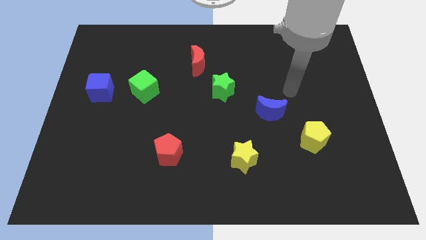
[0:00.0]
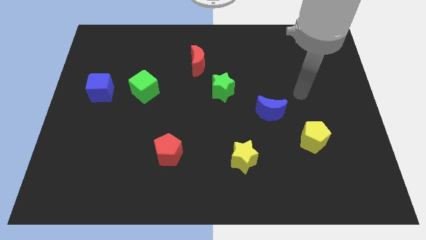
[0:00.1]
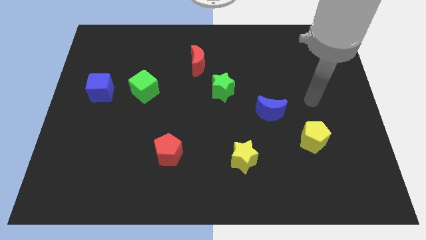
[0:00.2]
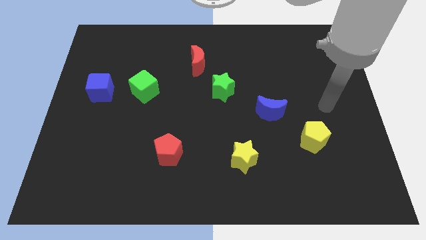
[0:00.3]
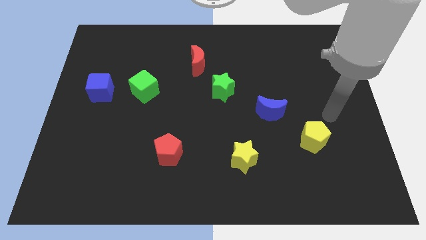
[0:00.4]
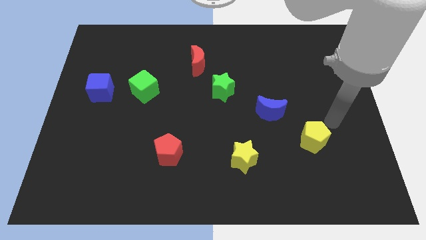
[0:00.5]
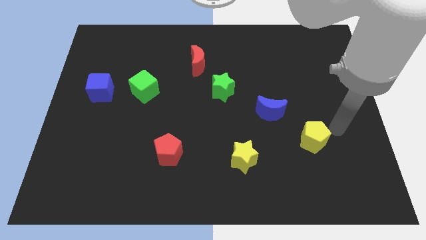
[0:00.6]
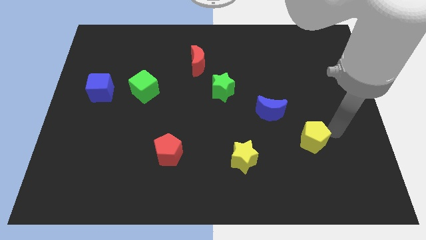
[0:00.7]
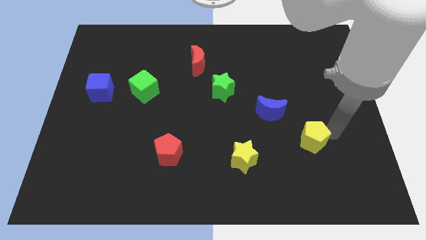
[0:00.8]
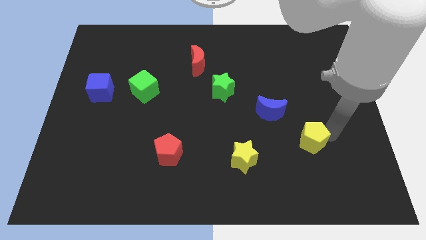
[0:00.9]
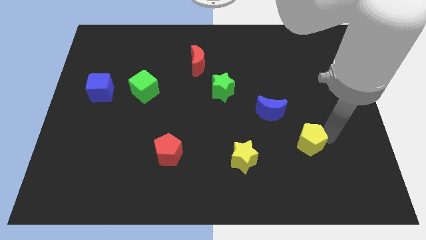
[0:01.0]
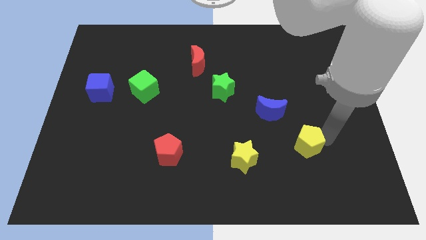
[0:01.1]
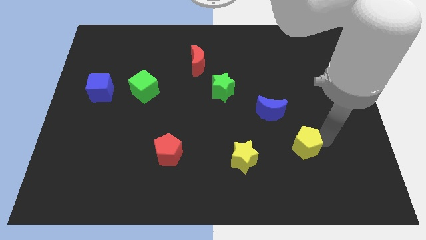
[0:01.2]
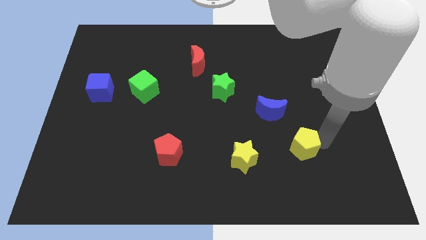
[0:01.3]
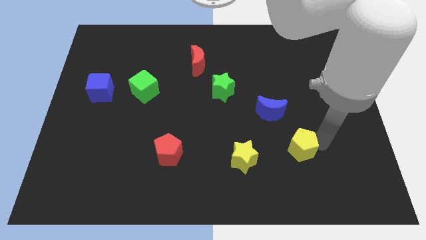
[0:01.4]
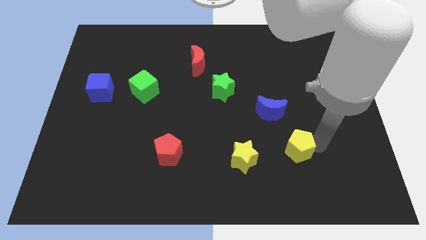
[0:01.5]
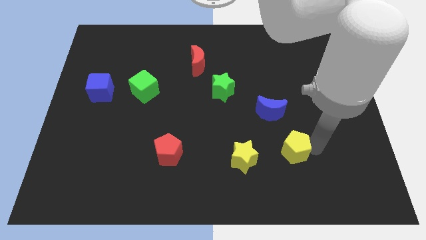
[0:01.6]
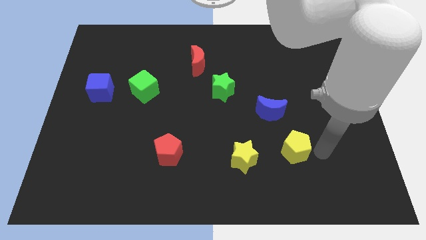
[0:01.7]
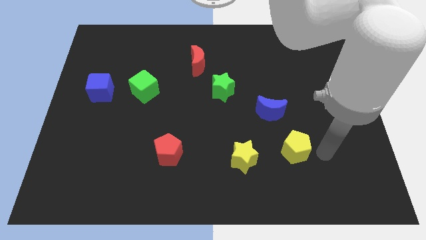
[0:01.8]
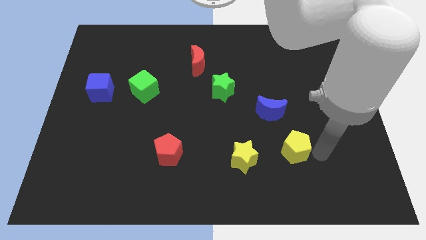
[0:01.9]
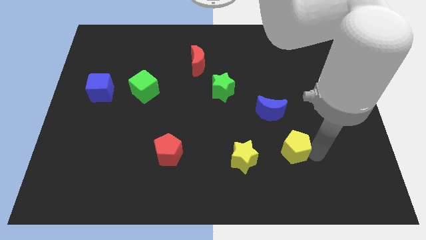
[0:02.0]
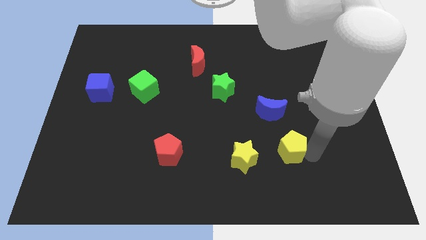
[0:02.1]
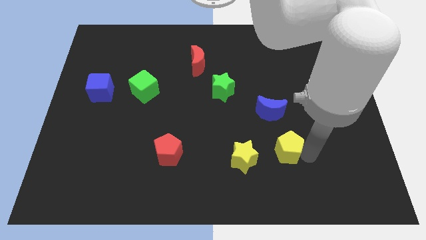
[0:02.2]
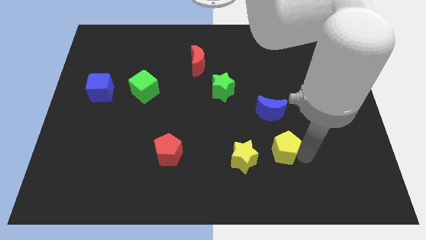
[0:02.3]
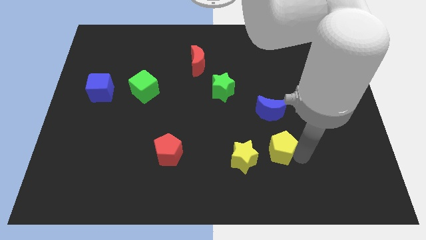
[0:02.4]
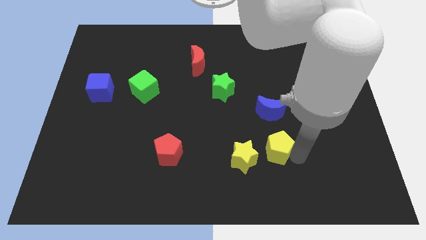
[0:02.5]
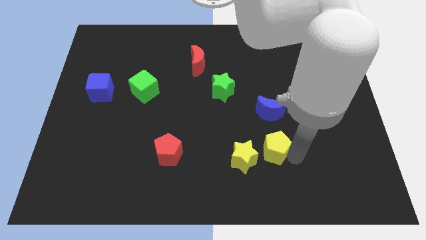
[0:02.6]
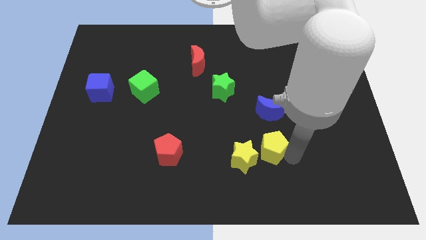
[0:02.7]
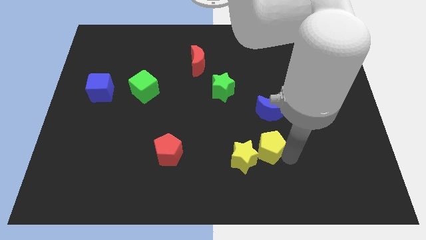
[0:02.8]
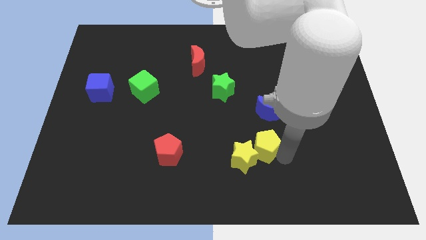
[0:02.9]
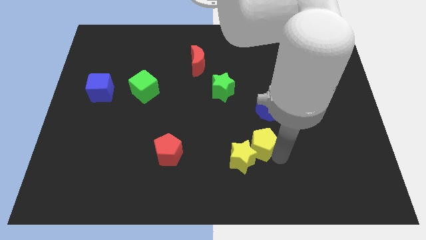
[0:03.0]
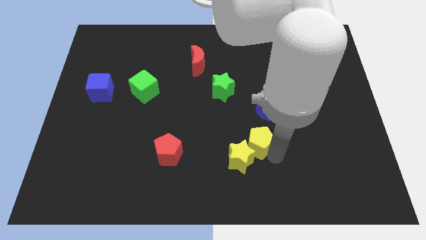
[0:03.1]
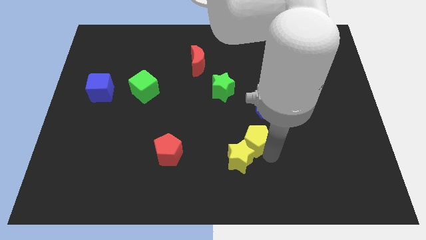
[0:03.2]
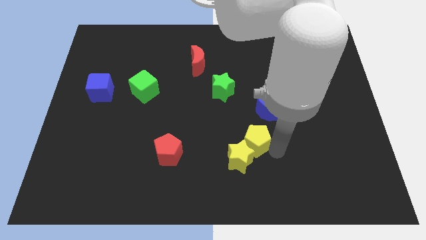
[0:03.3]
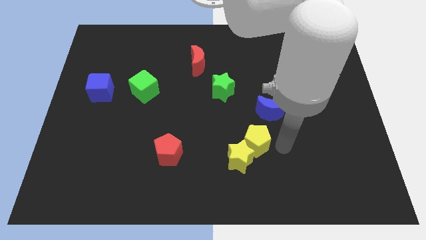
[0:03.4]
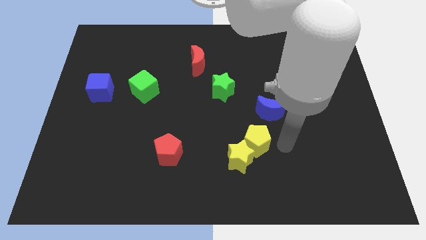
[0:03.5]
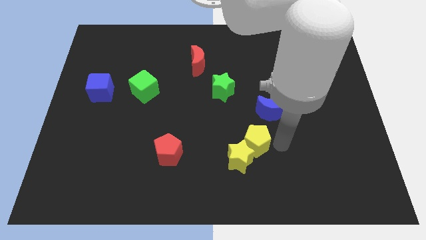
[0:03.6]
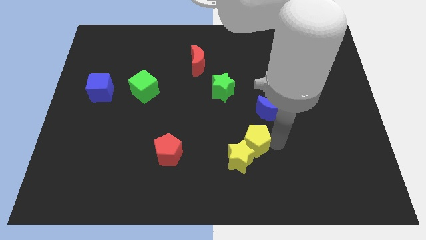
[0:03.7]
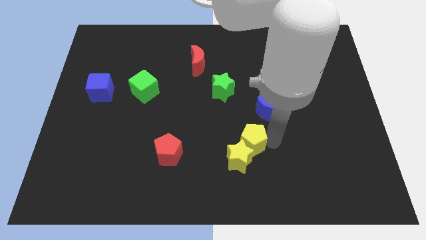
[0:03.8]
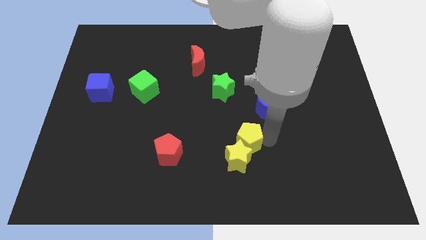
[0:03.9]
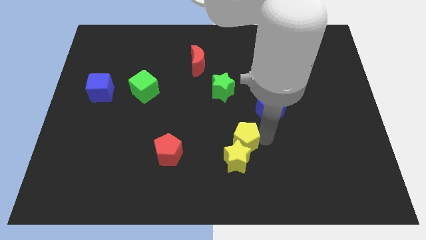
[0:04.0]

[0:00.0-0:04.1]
slide the yellow pentagon to the top left of the yellow star

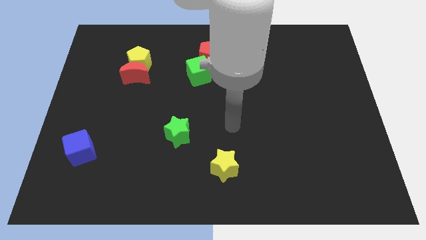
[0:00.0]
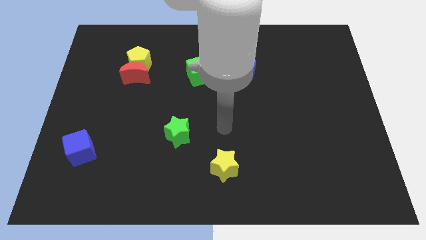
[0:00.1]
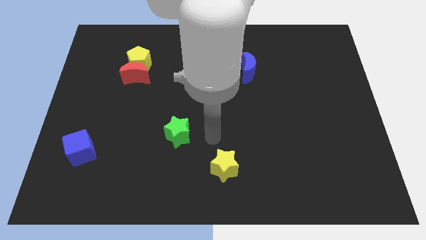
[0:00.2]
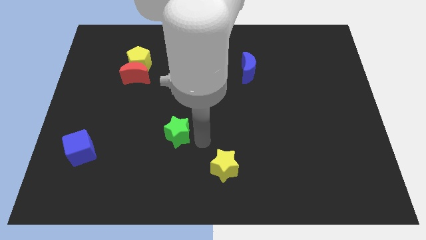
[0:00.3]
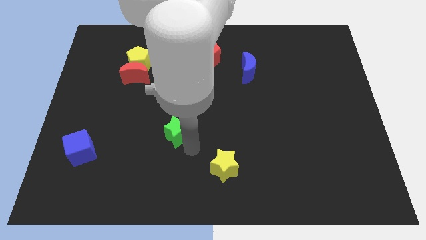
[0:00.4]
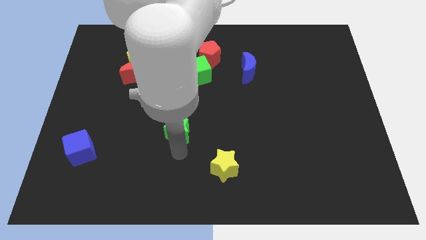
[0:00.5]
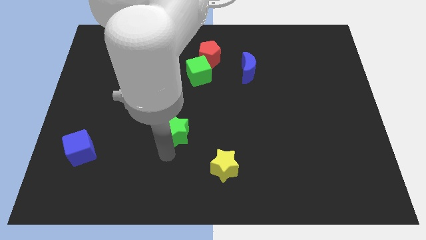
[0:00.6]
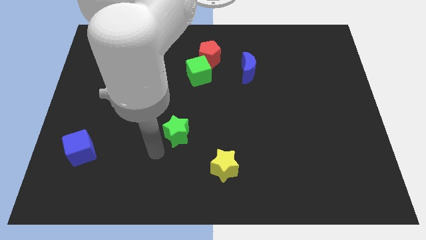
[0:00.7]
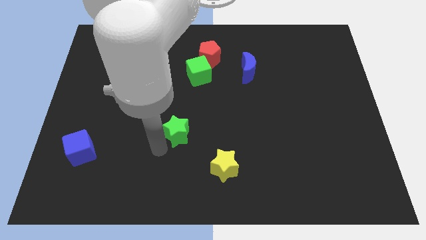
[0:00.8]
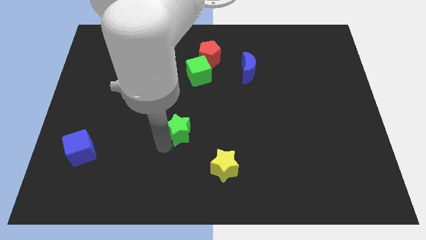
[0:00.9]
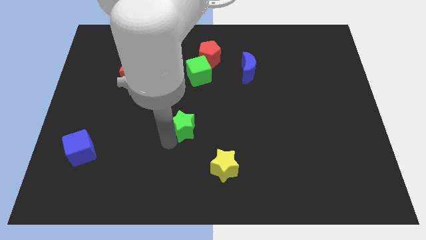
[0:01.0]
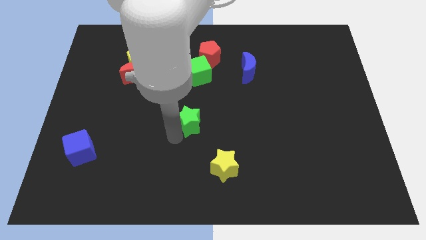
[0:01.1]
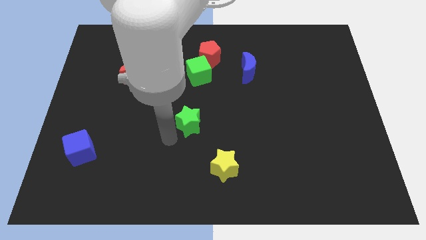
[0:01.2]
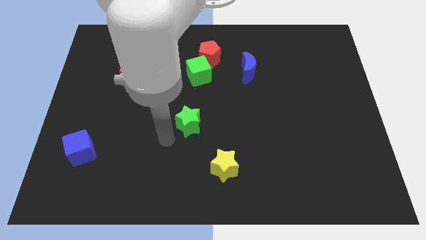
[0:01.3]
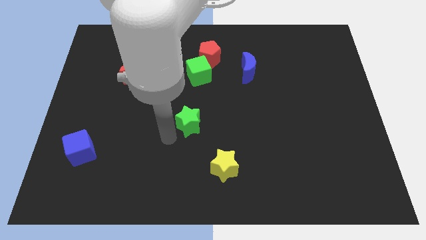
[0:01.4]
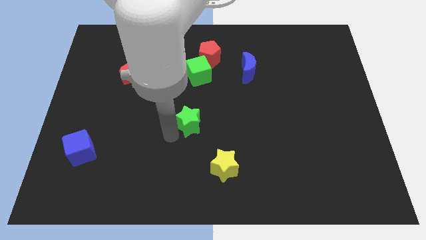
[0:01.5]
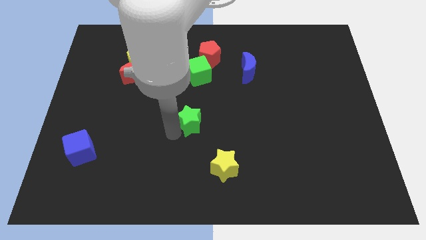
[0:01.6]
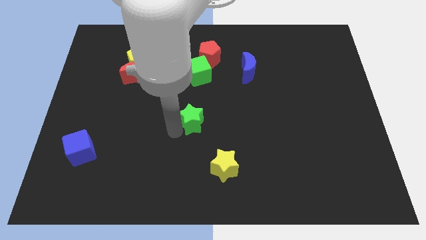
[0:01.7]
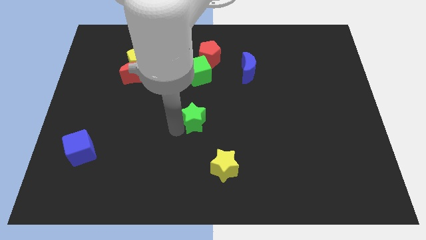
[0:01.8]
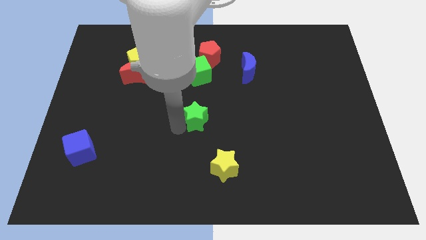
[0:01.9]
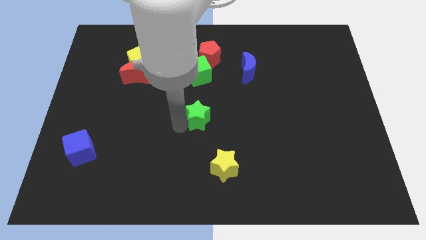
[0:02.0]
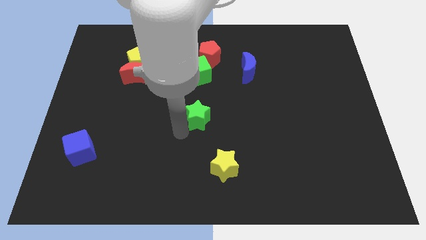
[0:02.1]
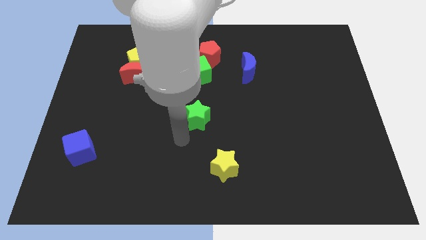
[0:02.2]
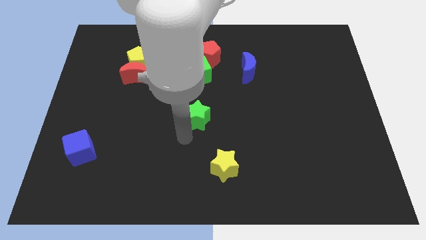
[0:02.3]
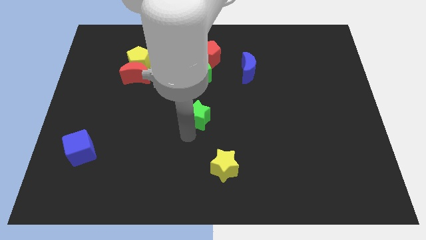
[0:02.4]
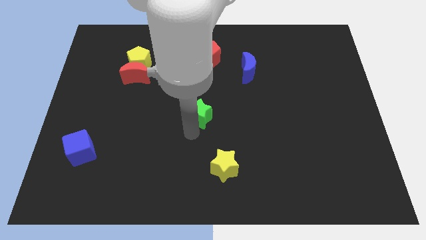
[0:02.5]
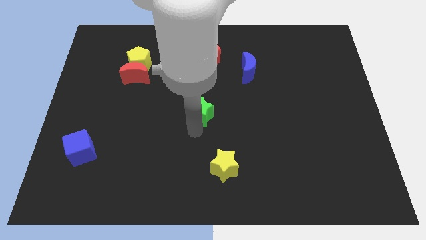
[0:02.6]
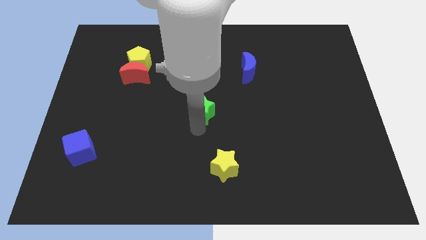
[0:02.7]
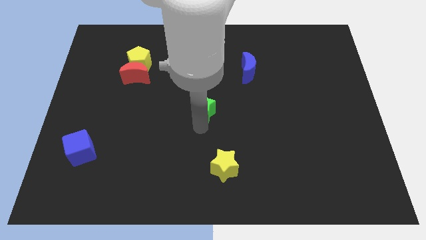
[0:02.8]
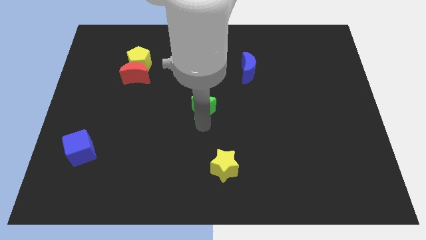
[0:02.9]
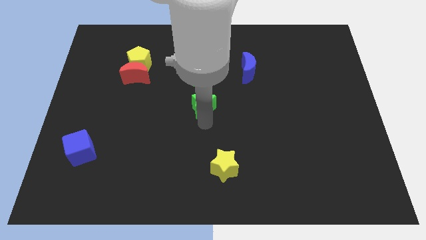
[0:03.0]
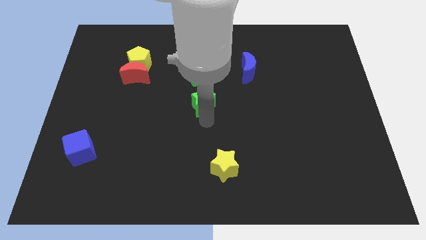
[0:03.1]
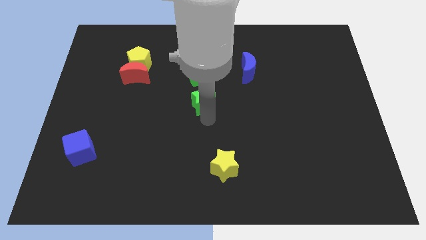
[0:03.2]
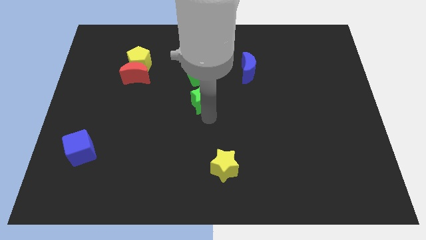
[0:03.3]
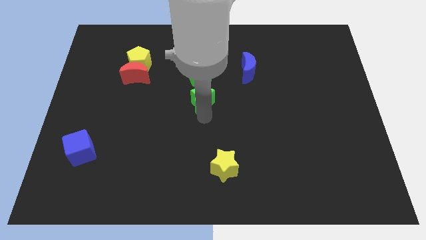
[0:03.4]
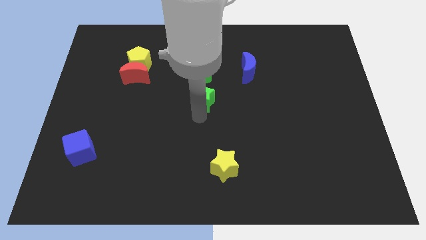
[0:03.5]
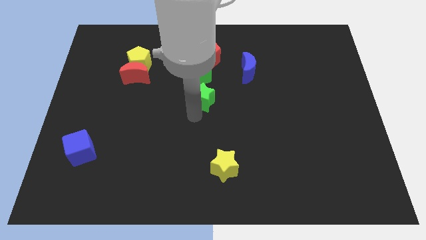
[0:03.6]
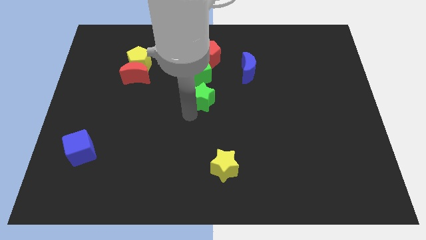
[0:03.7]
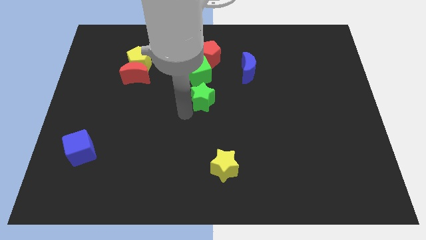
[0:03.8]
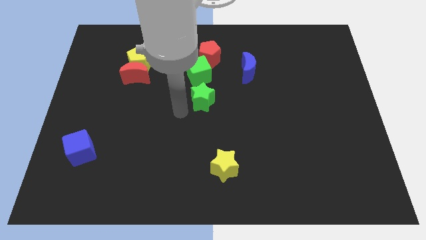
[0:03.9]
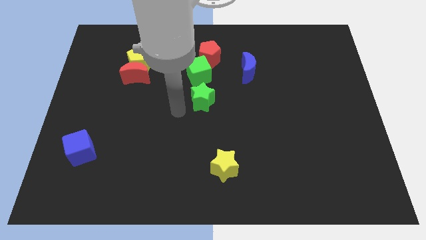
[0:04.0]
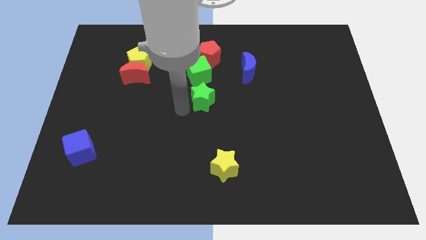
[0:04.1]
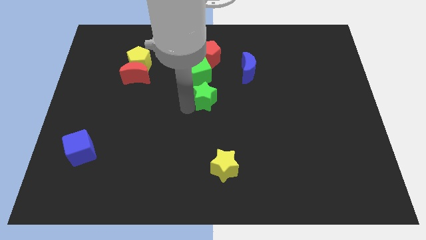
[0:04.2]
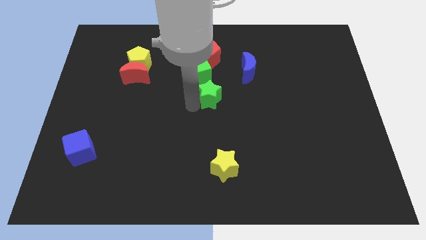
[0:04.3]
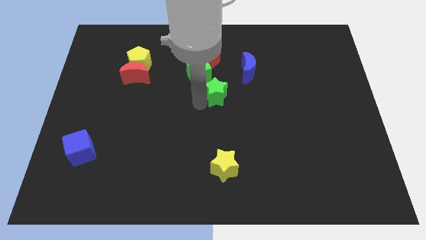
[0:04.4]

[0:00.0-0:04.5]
slide the green star diagonally down and to the left of the blue moon
